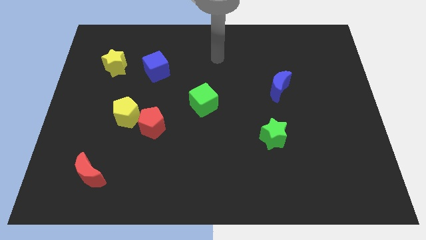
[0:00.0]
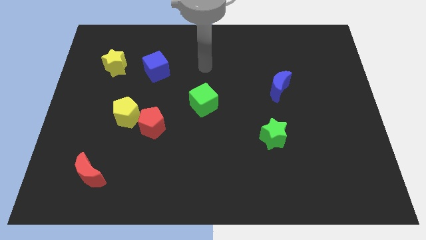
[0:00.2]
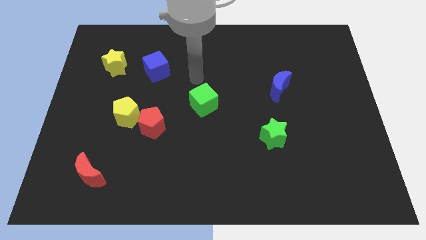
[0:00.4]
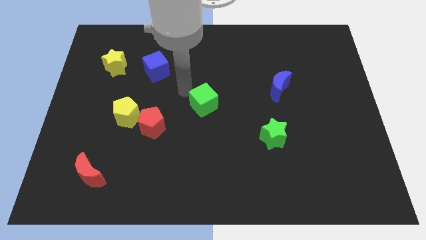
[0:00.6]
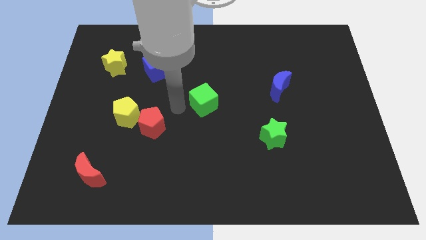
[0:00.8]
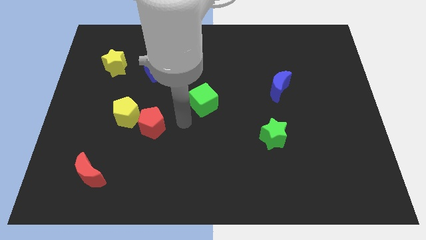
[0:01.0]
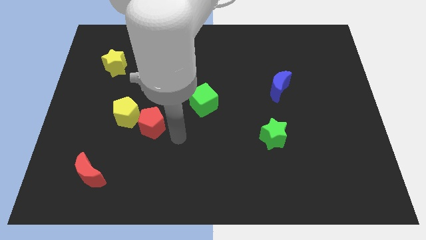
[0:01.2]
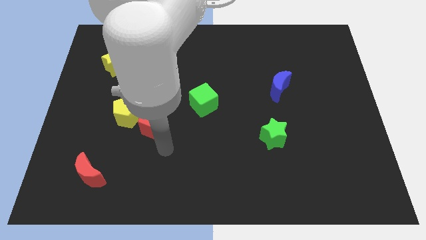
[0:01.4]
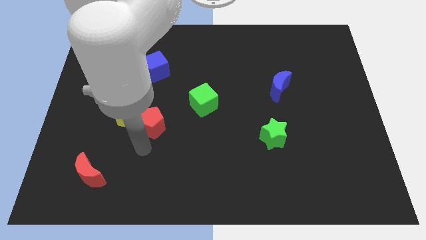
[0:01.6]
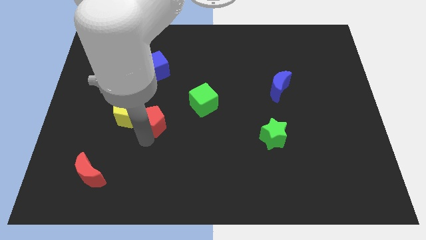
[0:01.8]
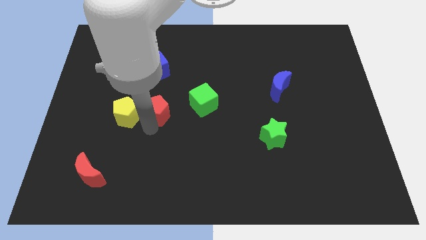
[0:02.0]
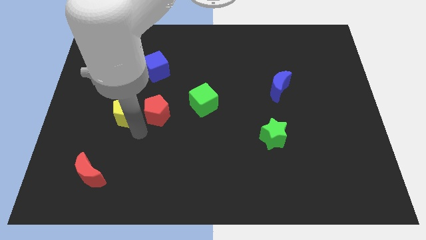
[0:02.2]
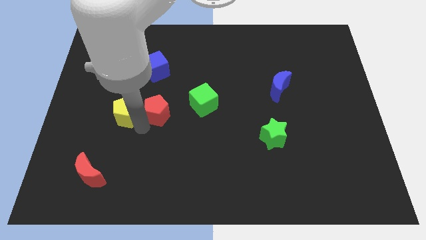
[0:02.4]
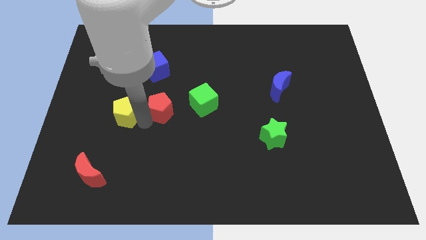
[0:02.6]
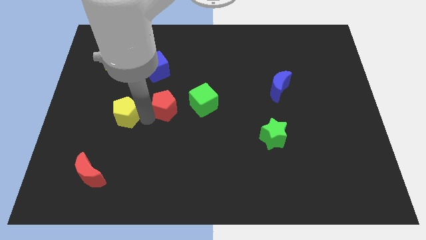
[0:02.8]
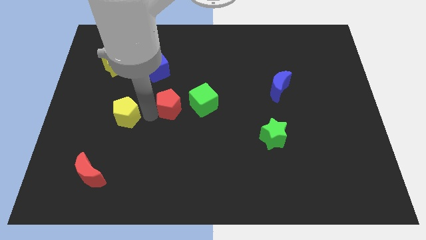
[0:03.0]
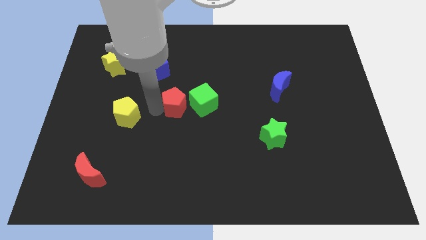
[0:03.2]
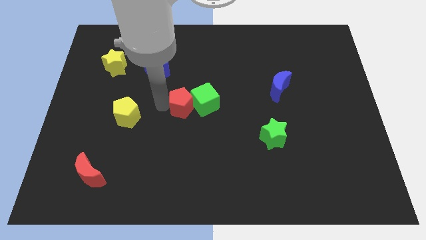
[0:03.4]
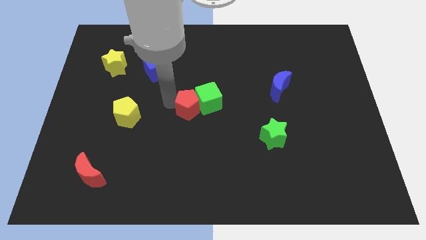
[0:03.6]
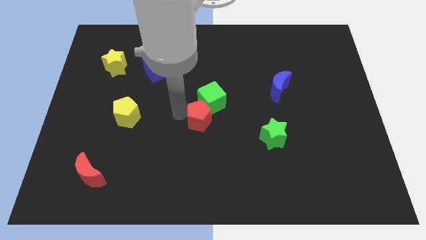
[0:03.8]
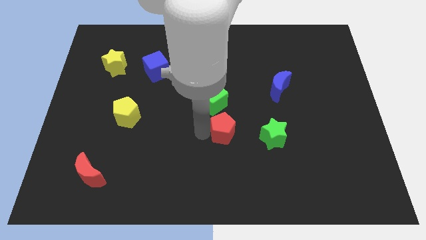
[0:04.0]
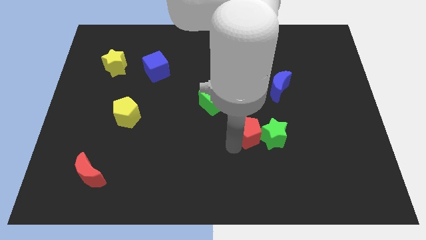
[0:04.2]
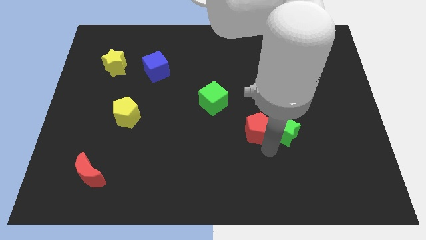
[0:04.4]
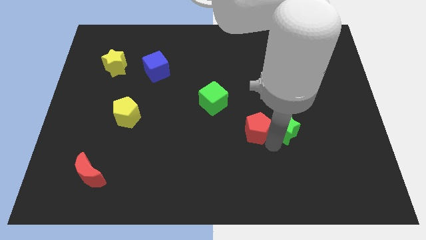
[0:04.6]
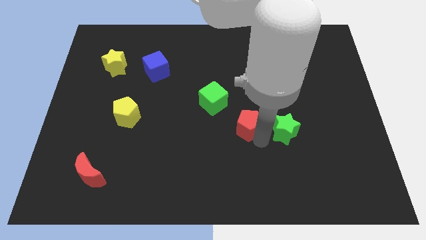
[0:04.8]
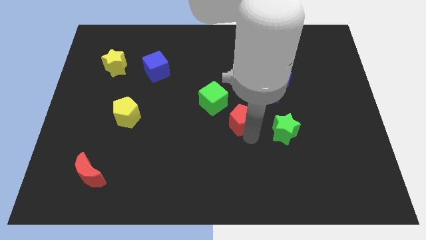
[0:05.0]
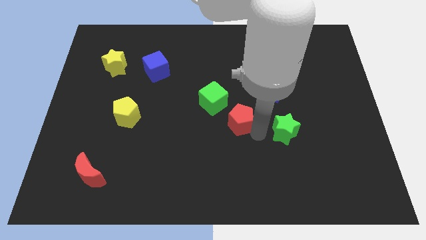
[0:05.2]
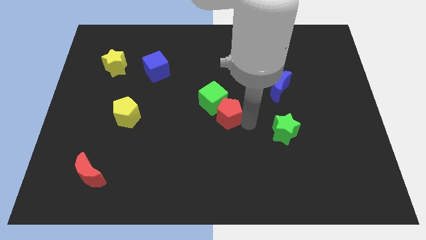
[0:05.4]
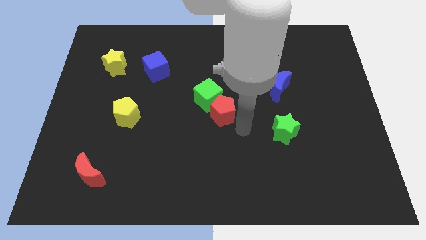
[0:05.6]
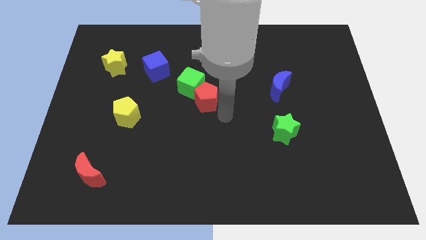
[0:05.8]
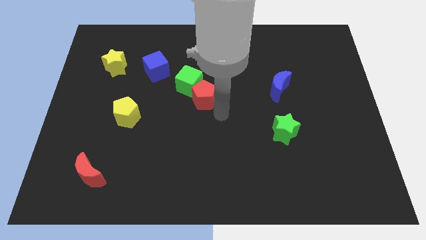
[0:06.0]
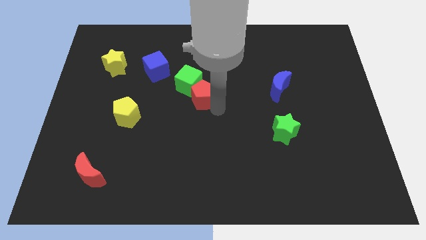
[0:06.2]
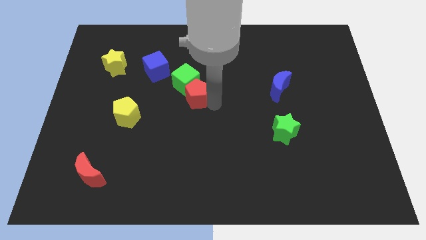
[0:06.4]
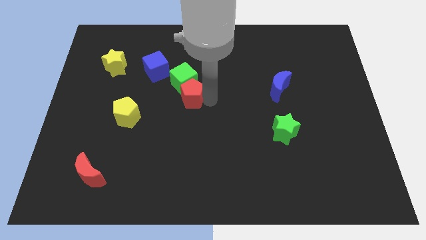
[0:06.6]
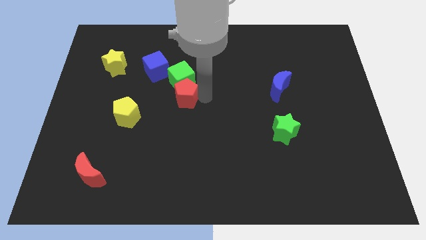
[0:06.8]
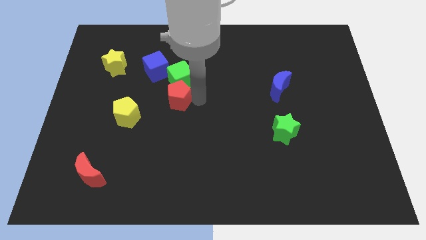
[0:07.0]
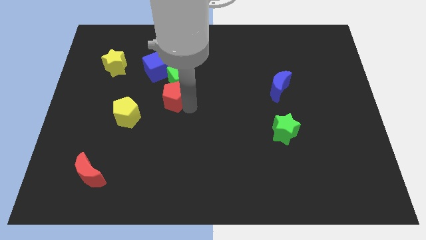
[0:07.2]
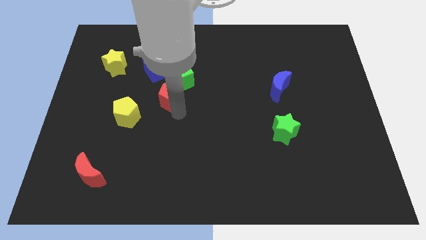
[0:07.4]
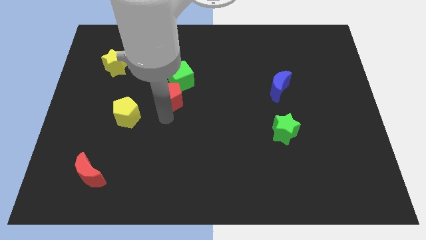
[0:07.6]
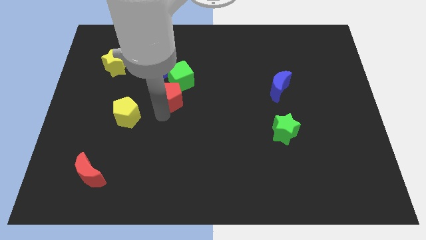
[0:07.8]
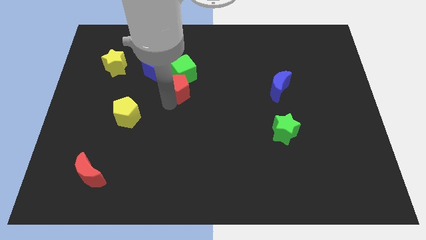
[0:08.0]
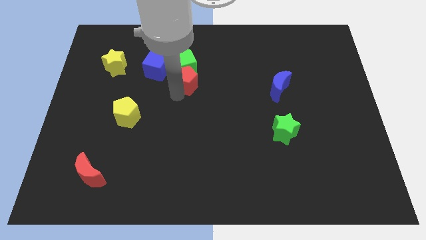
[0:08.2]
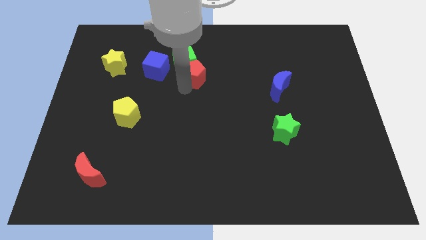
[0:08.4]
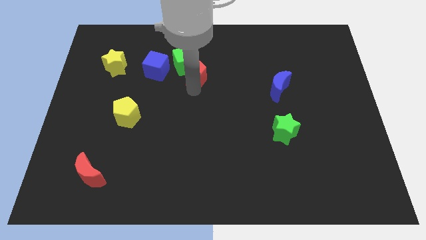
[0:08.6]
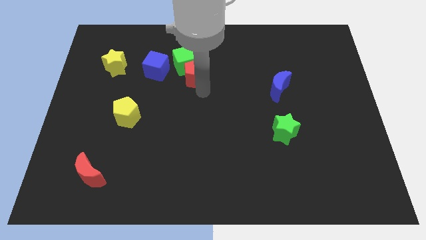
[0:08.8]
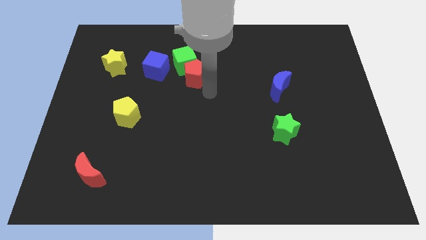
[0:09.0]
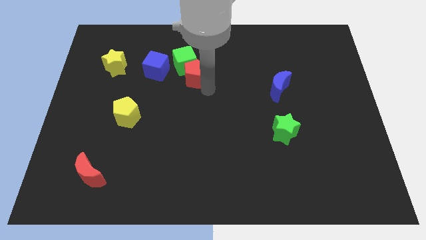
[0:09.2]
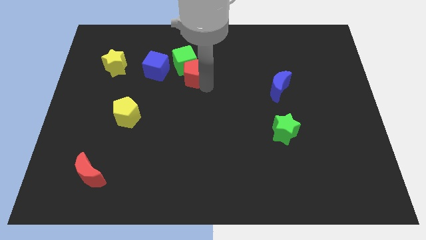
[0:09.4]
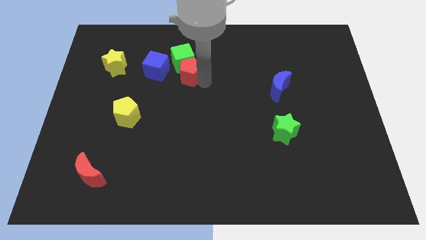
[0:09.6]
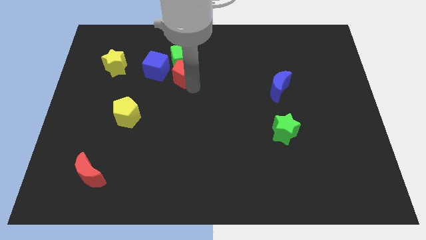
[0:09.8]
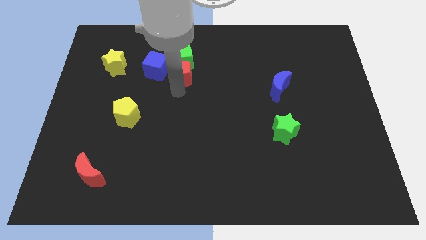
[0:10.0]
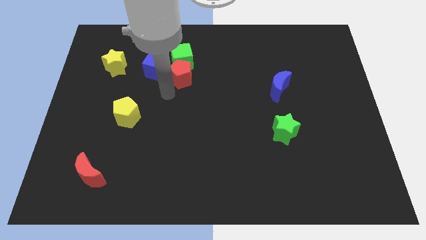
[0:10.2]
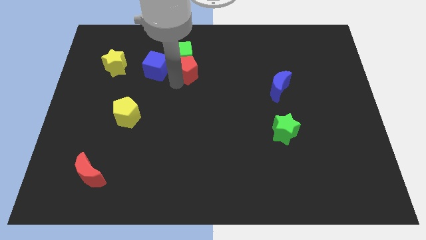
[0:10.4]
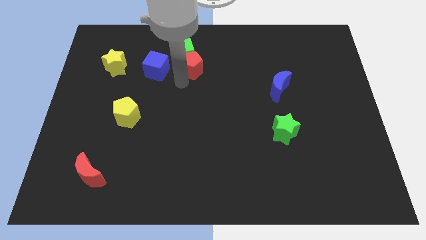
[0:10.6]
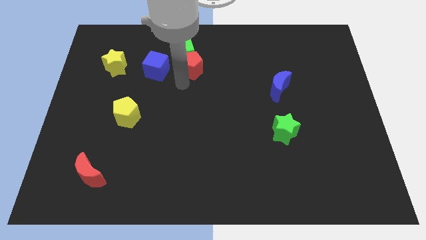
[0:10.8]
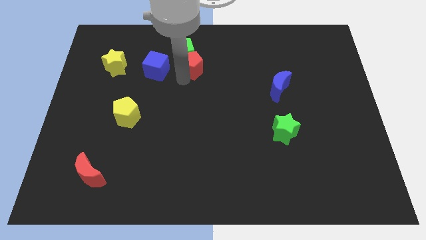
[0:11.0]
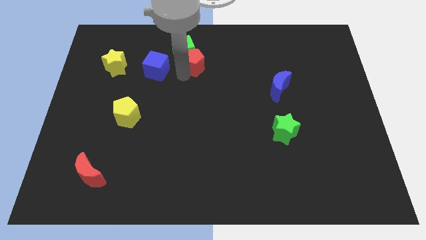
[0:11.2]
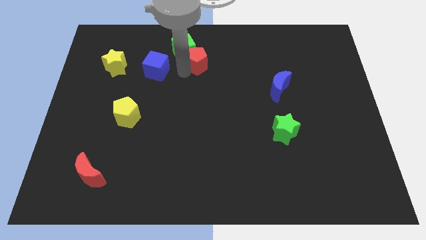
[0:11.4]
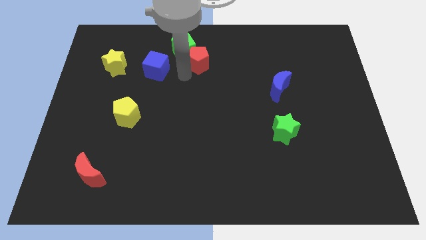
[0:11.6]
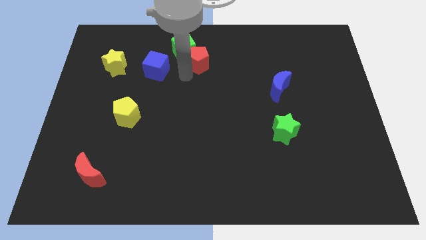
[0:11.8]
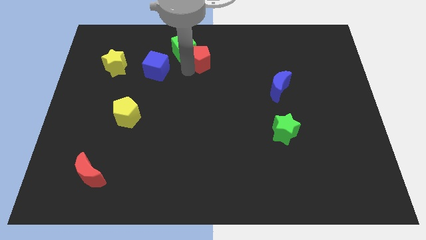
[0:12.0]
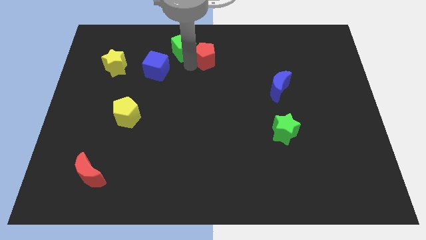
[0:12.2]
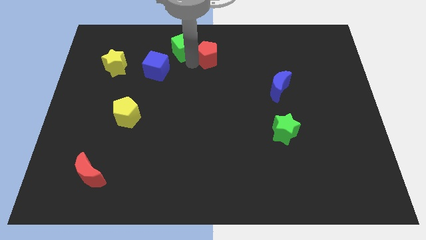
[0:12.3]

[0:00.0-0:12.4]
move the red pentagon to the top

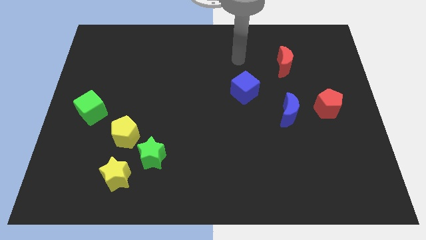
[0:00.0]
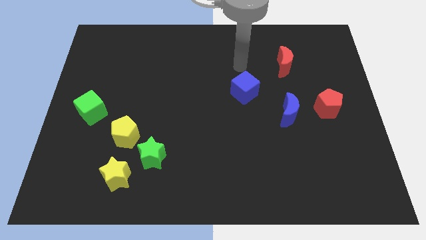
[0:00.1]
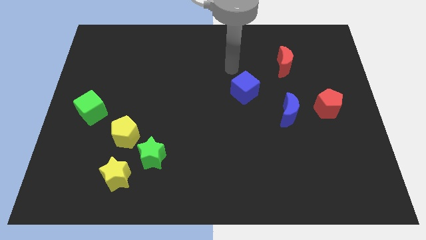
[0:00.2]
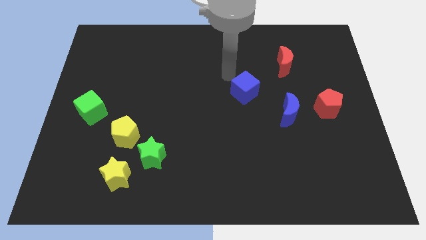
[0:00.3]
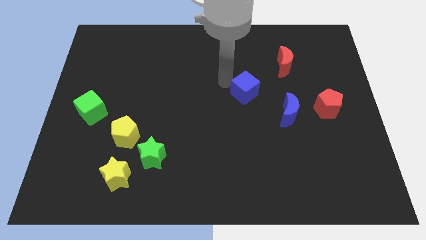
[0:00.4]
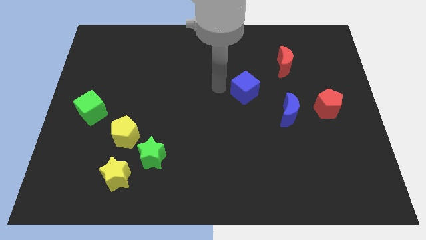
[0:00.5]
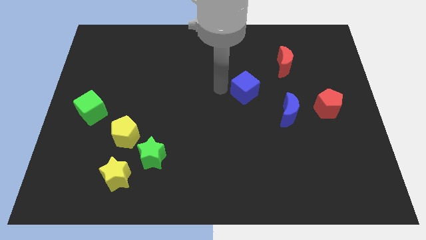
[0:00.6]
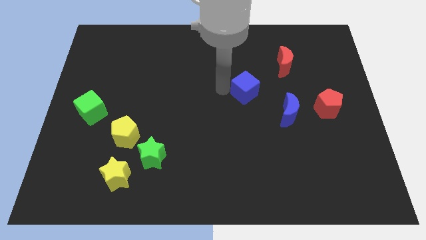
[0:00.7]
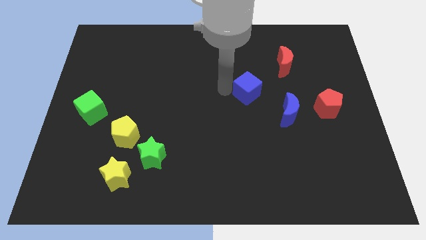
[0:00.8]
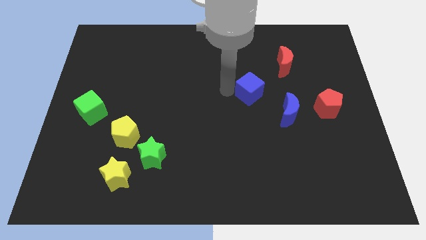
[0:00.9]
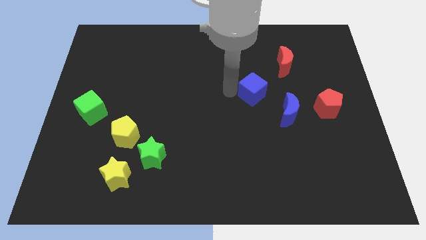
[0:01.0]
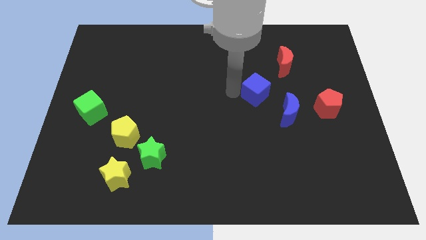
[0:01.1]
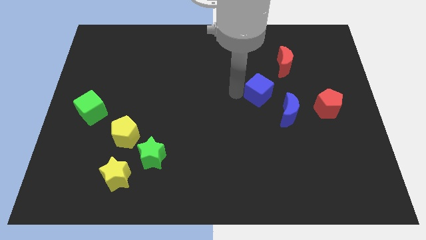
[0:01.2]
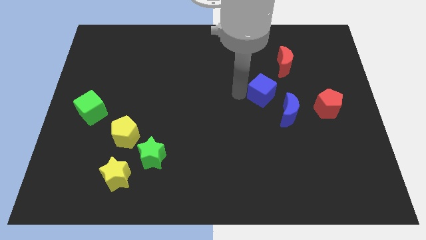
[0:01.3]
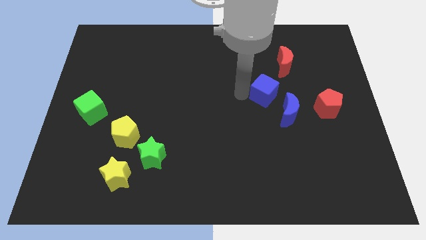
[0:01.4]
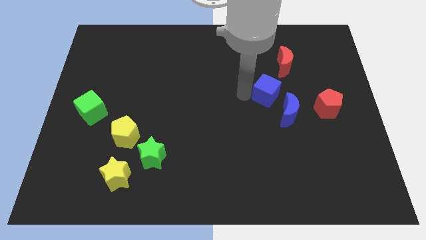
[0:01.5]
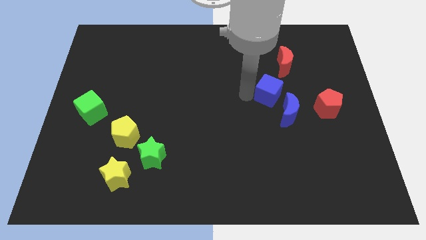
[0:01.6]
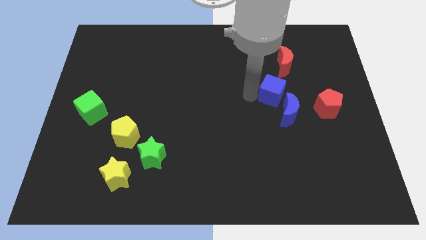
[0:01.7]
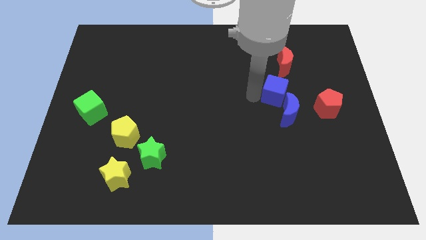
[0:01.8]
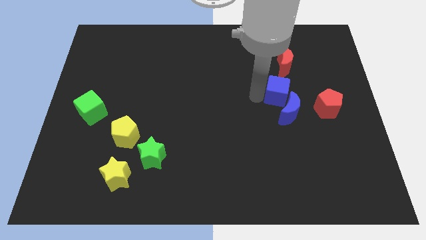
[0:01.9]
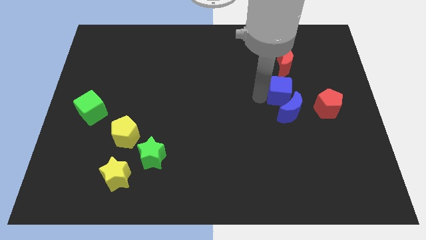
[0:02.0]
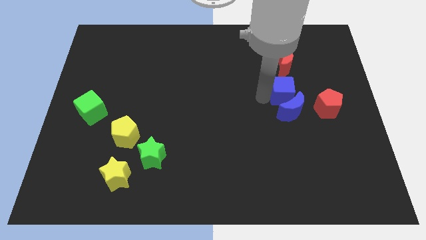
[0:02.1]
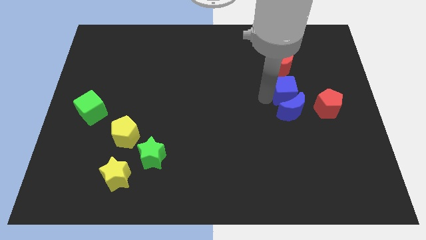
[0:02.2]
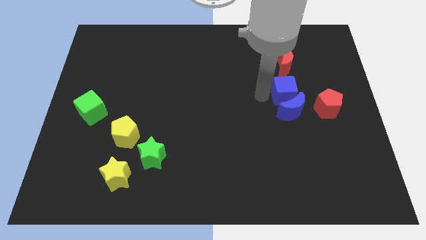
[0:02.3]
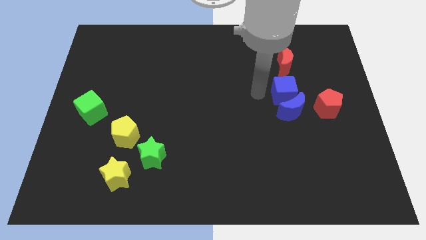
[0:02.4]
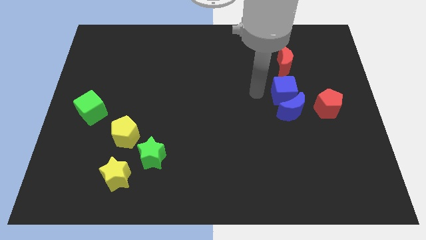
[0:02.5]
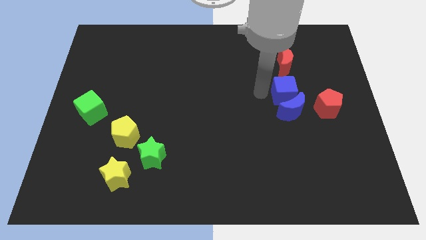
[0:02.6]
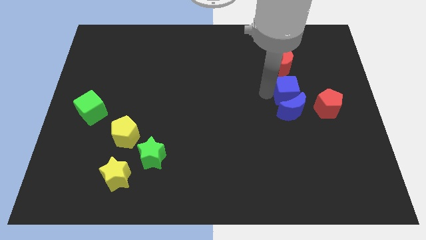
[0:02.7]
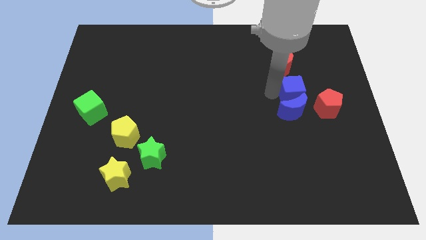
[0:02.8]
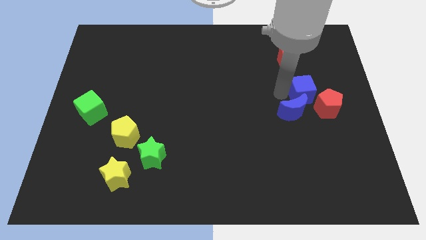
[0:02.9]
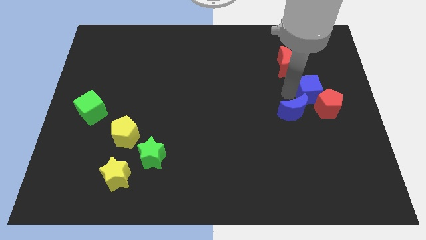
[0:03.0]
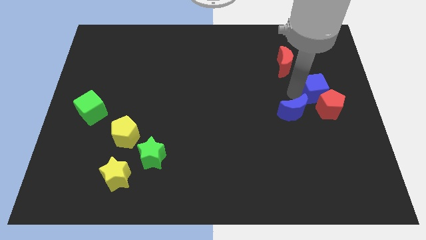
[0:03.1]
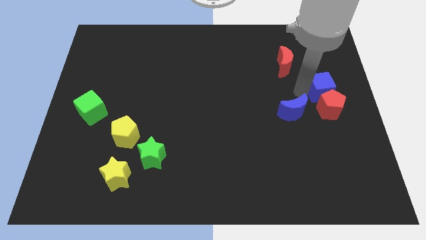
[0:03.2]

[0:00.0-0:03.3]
put the blue cube to the right side of the board
